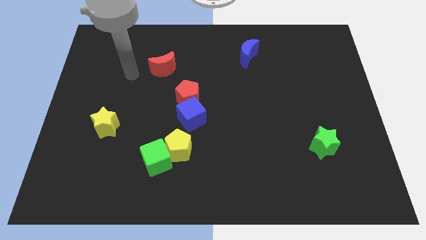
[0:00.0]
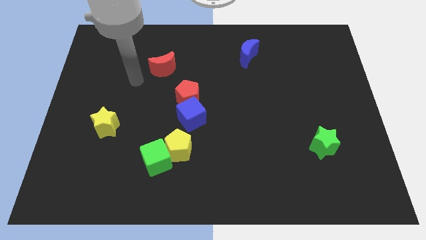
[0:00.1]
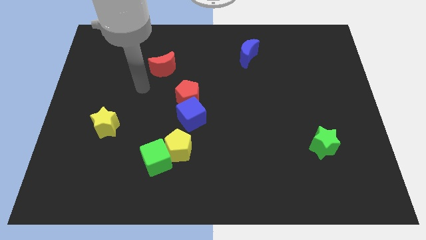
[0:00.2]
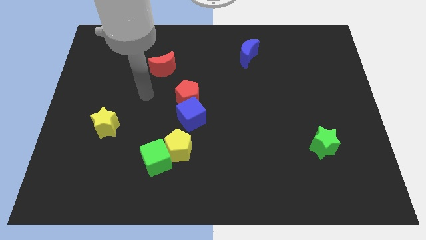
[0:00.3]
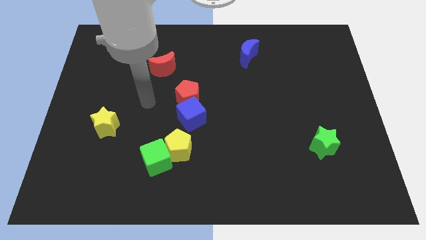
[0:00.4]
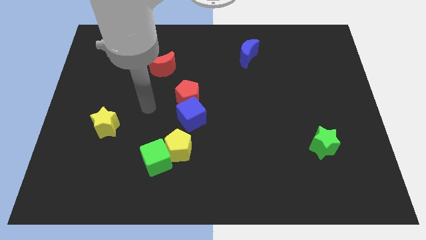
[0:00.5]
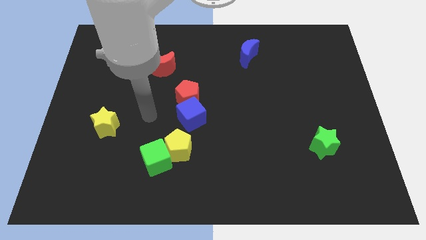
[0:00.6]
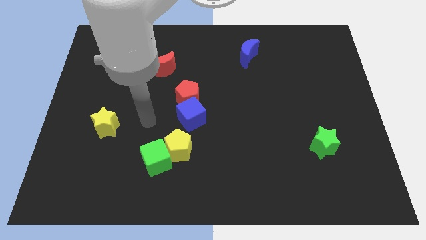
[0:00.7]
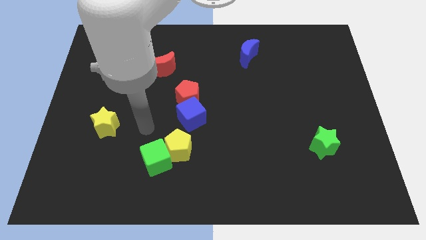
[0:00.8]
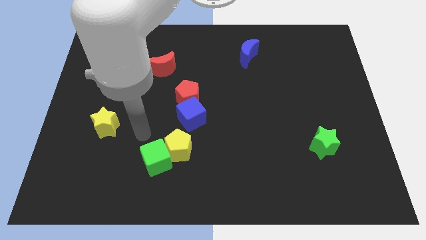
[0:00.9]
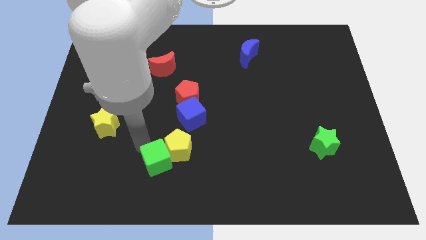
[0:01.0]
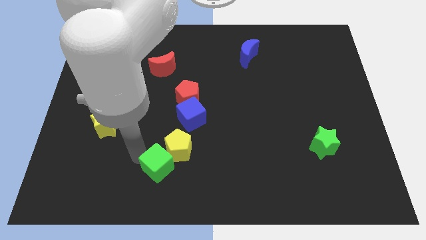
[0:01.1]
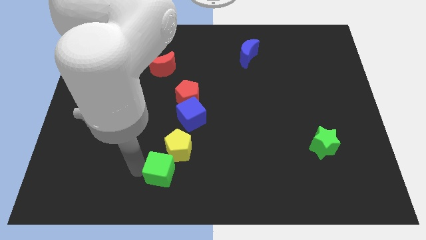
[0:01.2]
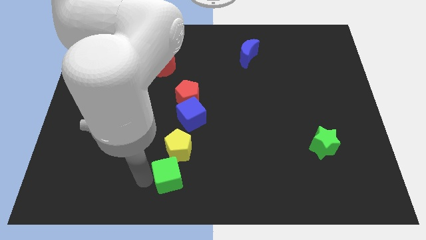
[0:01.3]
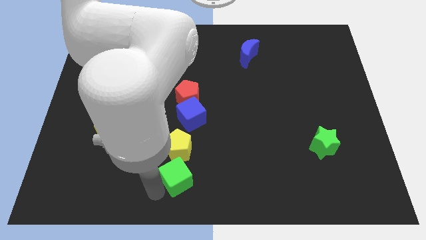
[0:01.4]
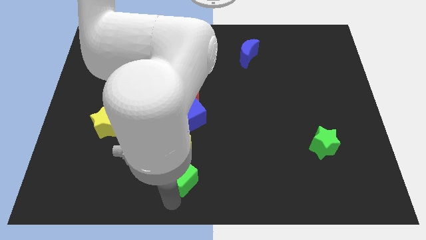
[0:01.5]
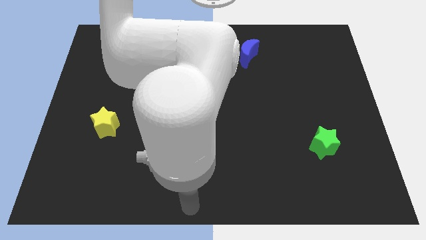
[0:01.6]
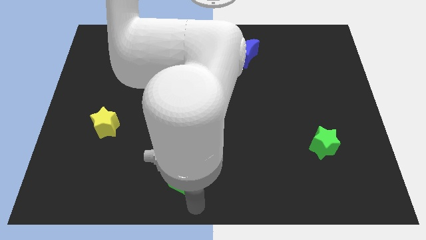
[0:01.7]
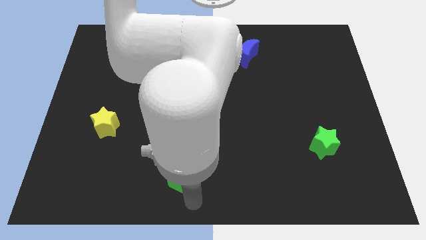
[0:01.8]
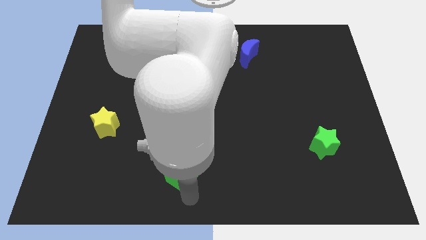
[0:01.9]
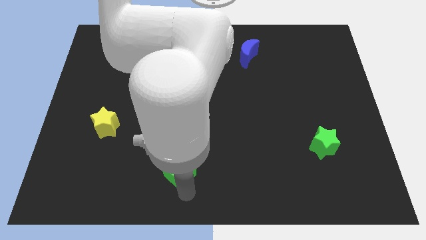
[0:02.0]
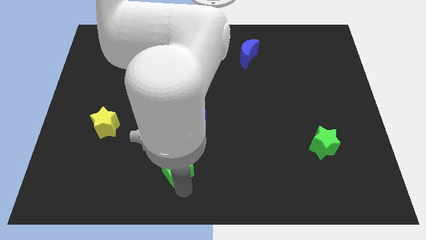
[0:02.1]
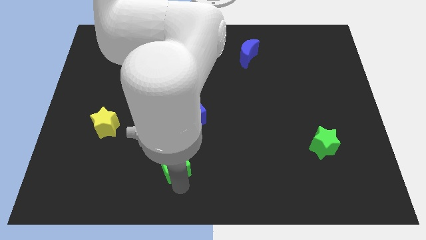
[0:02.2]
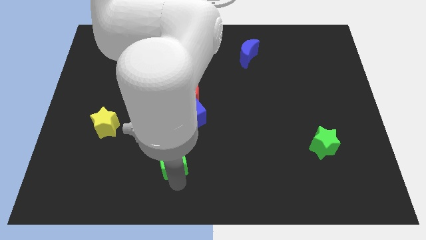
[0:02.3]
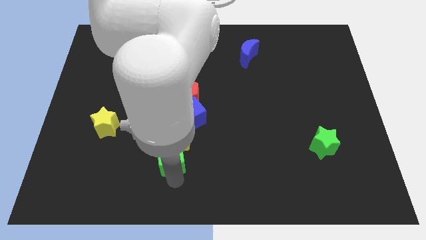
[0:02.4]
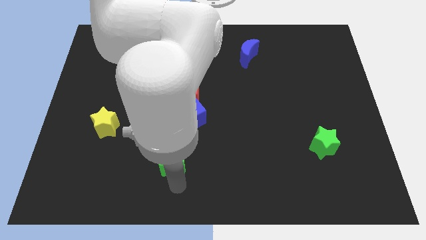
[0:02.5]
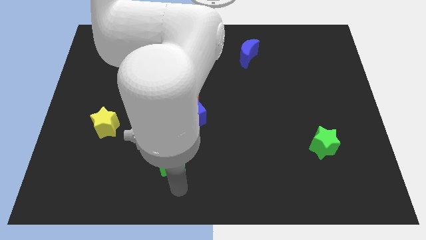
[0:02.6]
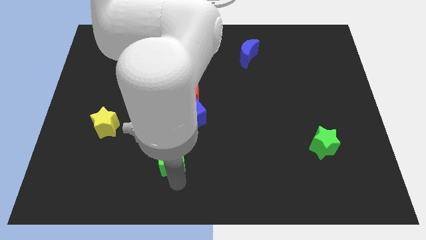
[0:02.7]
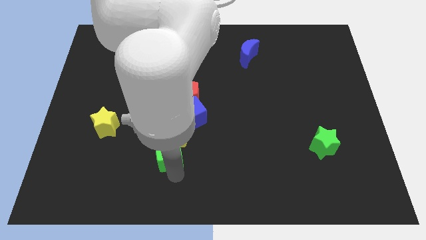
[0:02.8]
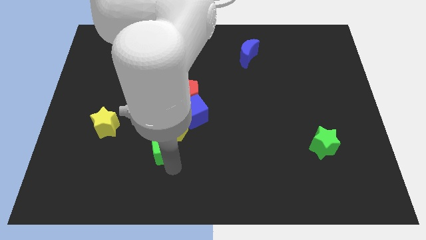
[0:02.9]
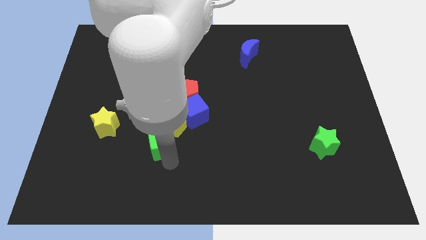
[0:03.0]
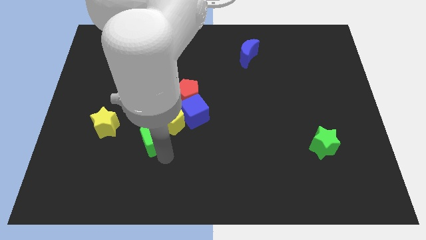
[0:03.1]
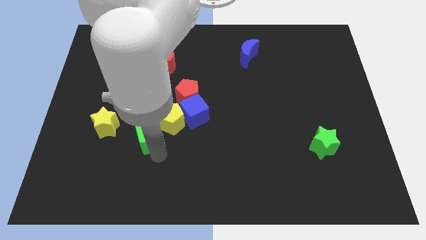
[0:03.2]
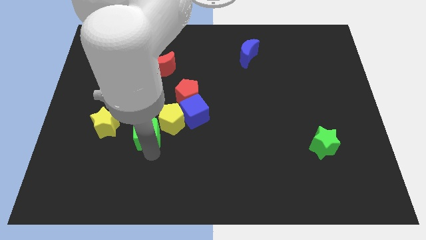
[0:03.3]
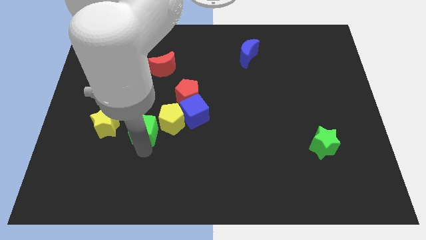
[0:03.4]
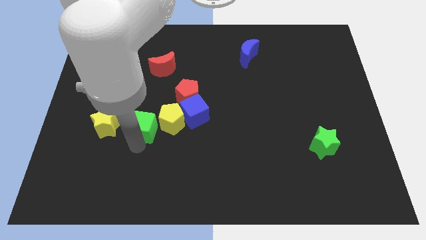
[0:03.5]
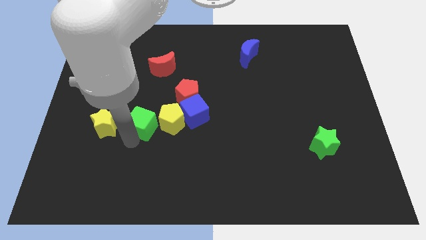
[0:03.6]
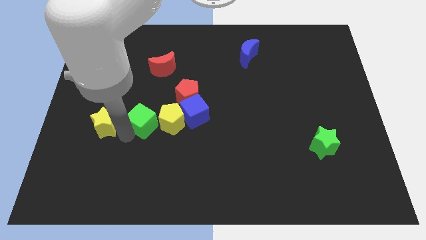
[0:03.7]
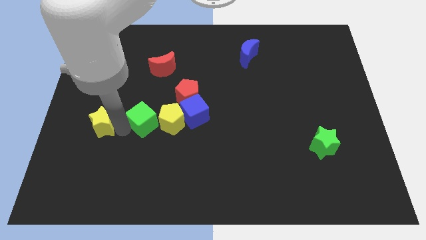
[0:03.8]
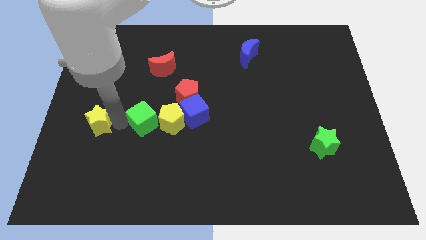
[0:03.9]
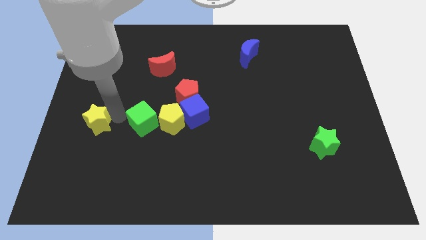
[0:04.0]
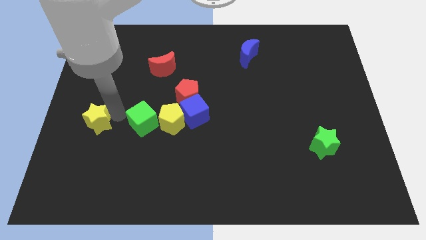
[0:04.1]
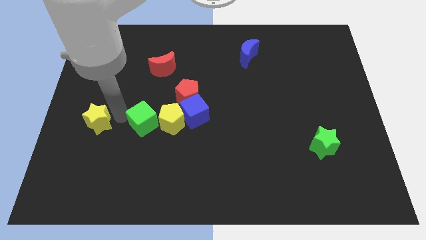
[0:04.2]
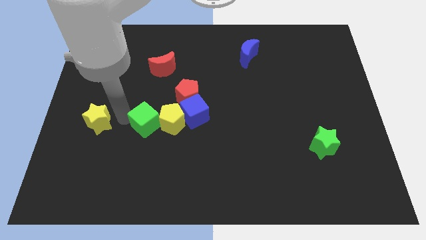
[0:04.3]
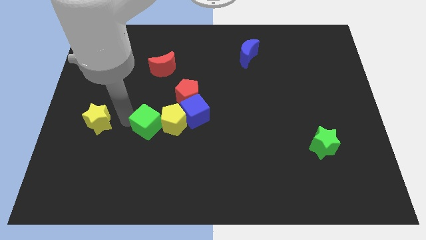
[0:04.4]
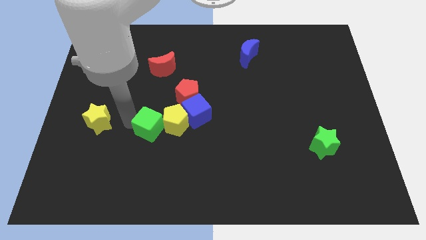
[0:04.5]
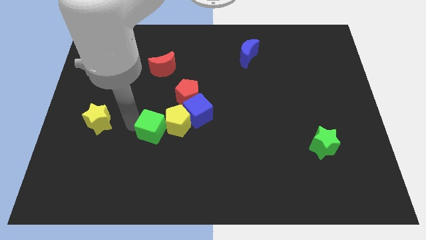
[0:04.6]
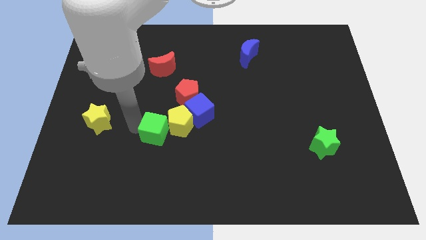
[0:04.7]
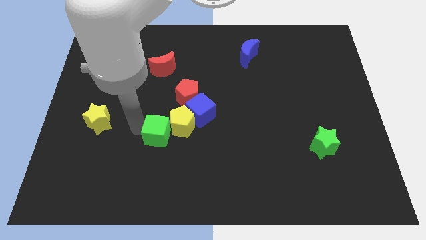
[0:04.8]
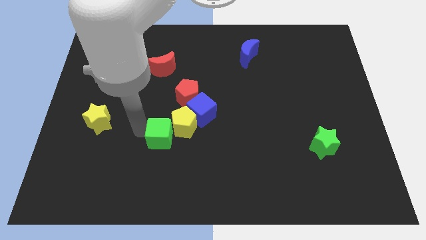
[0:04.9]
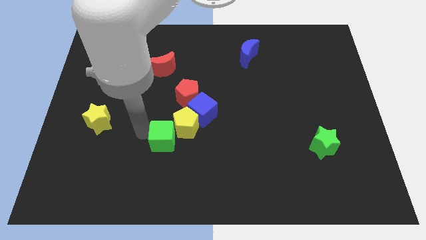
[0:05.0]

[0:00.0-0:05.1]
move the green cube to the bottom side of the red pentagon

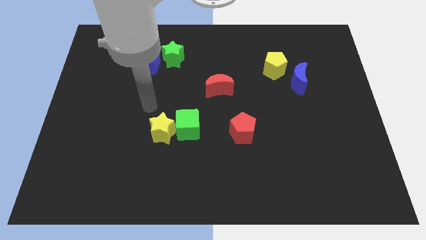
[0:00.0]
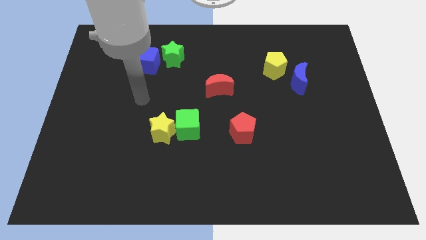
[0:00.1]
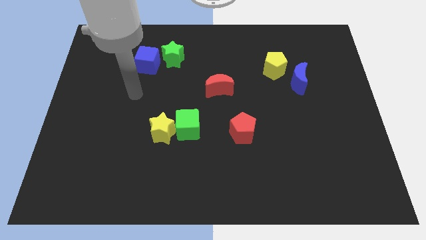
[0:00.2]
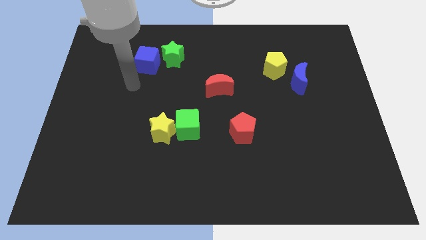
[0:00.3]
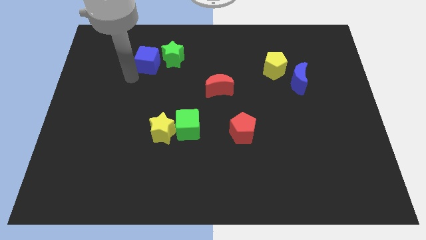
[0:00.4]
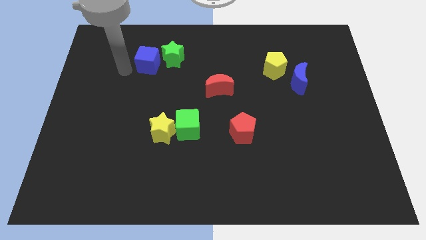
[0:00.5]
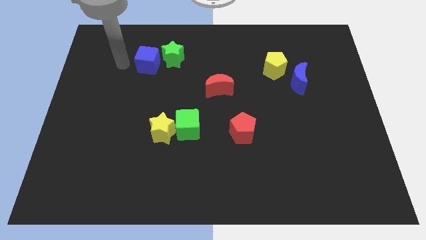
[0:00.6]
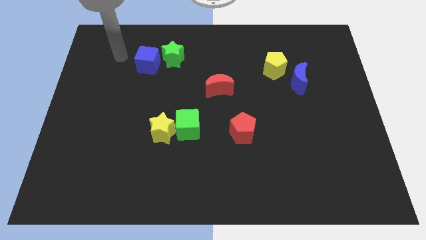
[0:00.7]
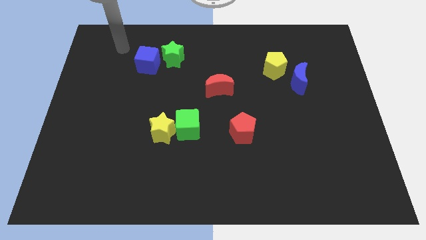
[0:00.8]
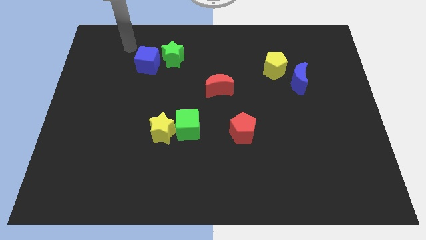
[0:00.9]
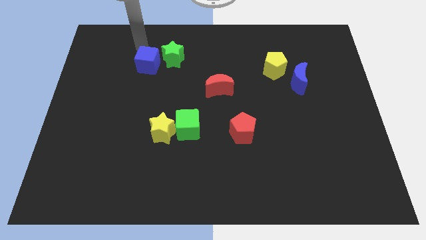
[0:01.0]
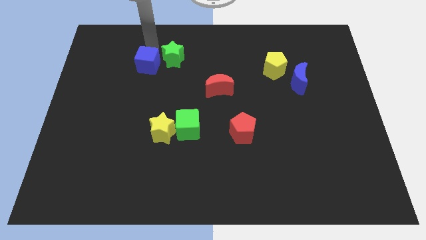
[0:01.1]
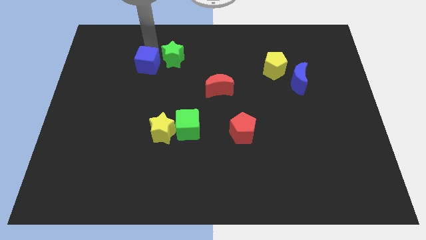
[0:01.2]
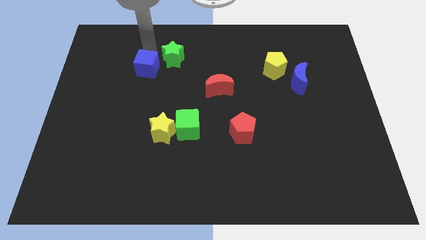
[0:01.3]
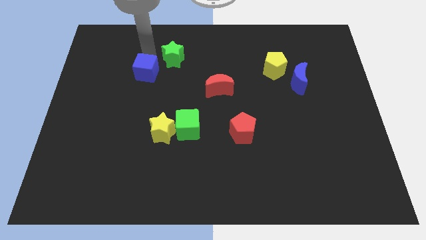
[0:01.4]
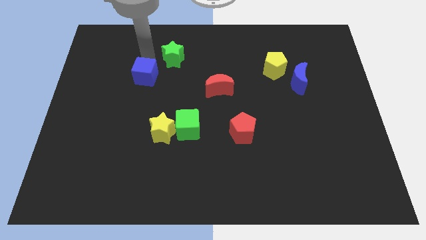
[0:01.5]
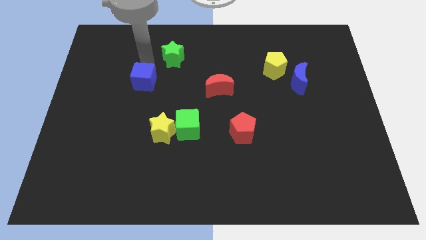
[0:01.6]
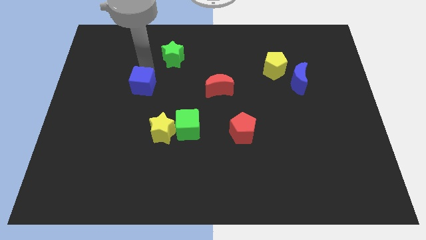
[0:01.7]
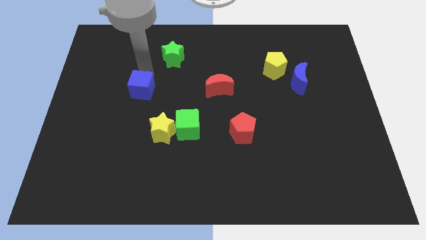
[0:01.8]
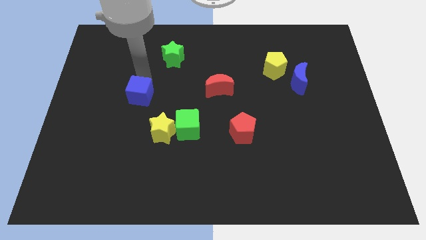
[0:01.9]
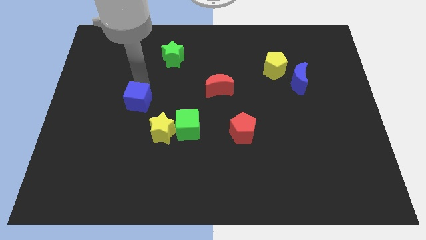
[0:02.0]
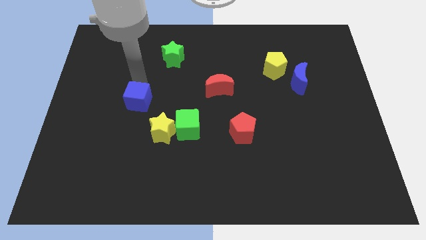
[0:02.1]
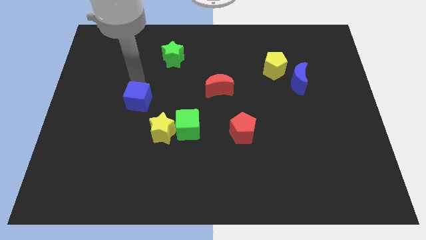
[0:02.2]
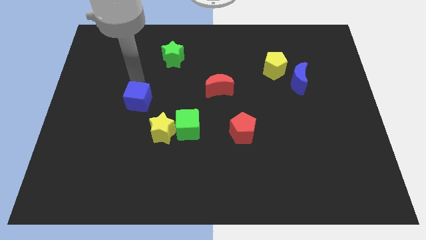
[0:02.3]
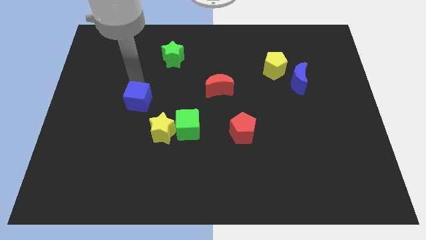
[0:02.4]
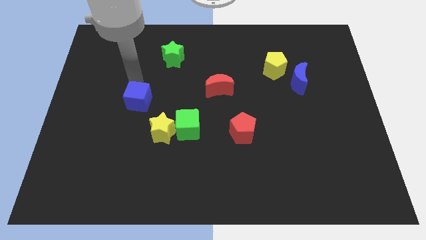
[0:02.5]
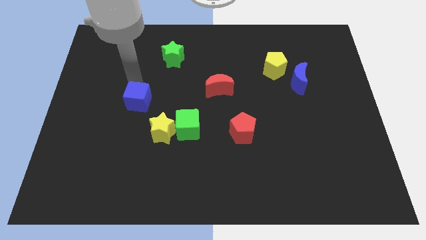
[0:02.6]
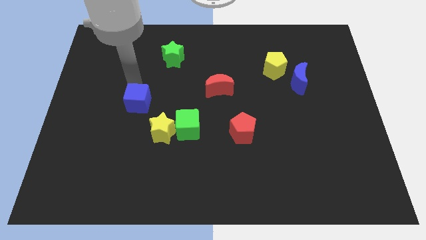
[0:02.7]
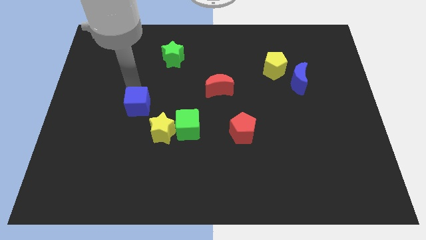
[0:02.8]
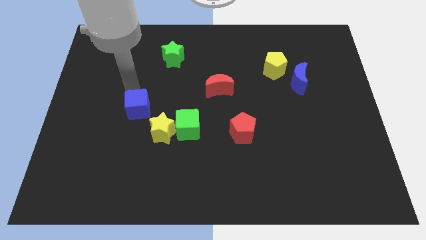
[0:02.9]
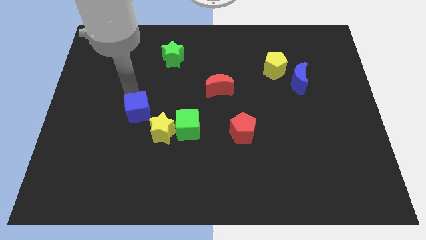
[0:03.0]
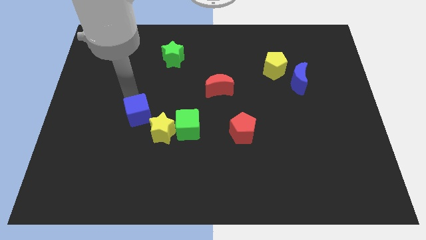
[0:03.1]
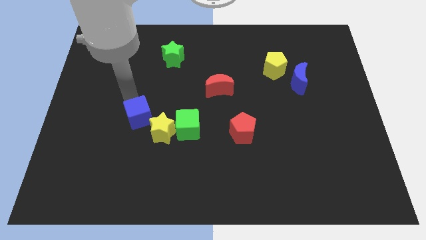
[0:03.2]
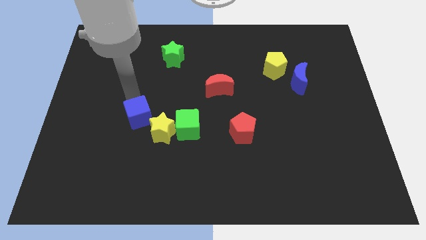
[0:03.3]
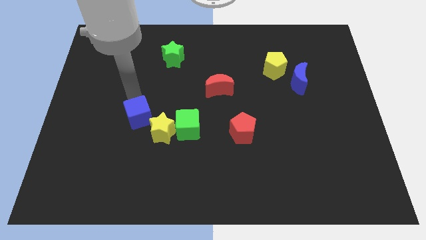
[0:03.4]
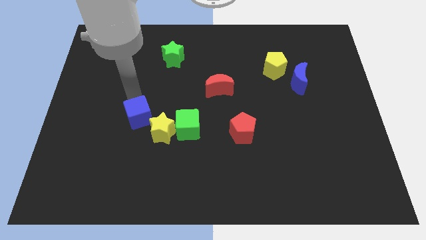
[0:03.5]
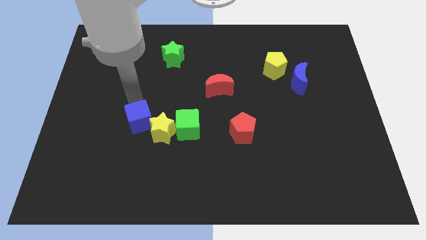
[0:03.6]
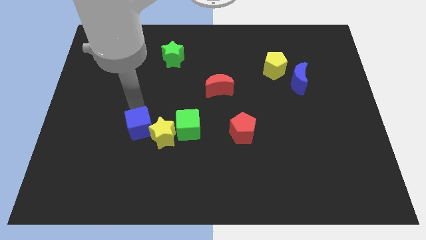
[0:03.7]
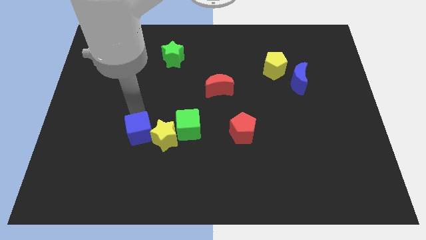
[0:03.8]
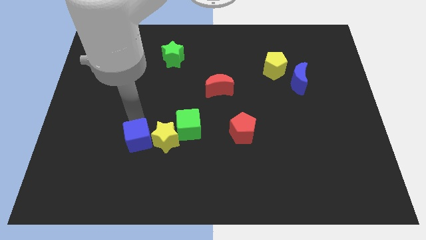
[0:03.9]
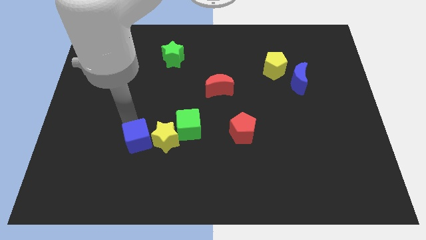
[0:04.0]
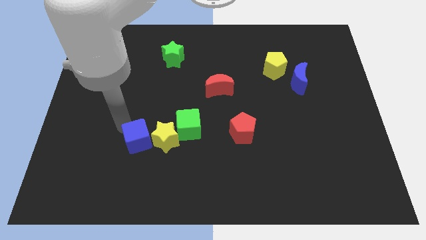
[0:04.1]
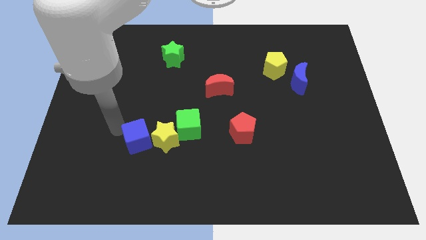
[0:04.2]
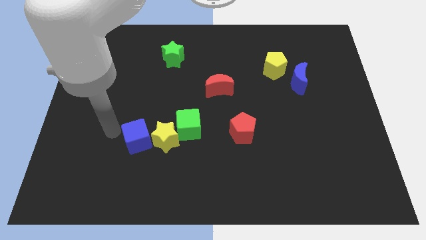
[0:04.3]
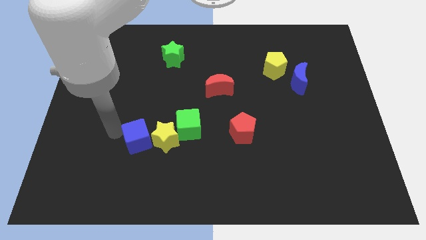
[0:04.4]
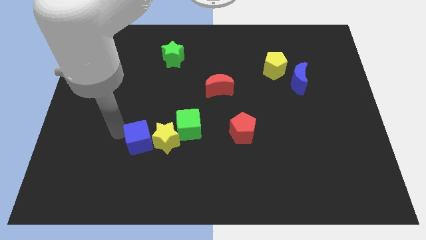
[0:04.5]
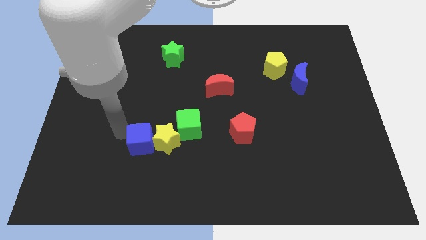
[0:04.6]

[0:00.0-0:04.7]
move the blue cube to the bottom left of the green cube
